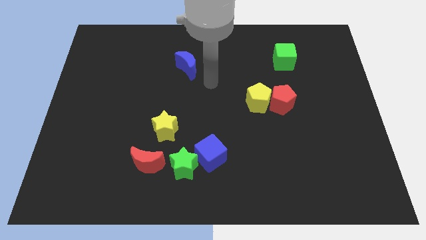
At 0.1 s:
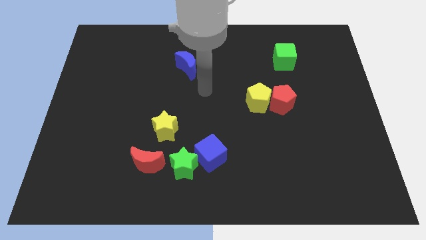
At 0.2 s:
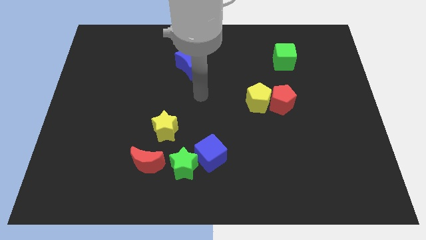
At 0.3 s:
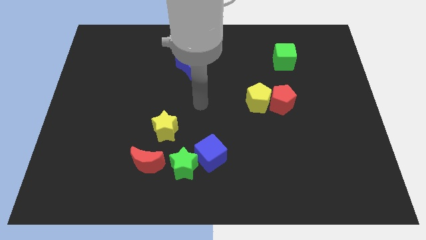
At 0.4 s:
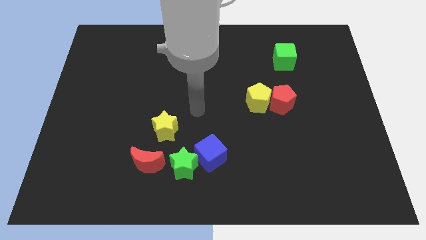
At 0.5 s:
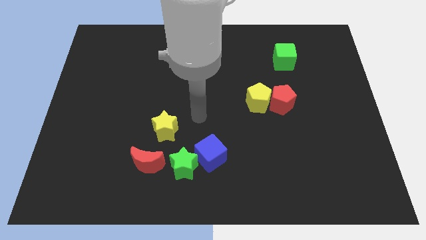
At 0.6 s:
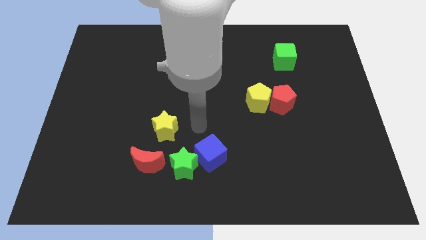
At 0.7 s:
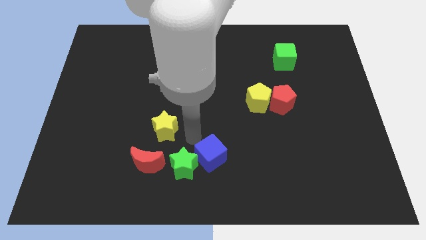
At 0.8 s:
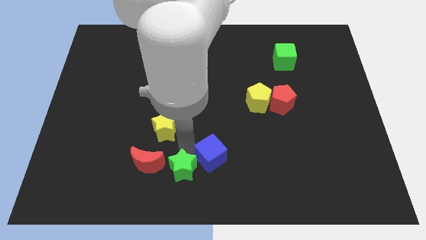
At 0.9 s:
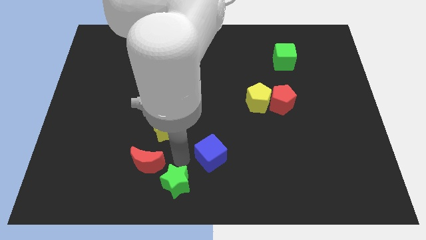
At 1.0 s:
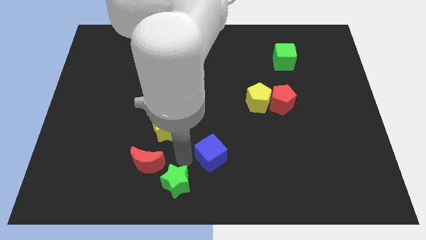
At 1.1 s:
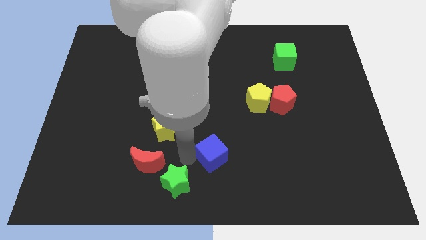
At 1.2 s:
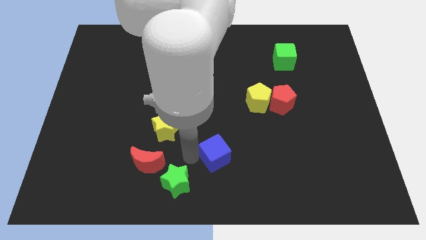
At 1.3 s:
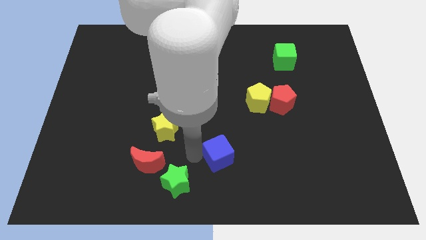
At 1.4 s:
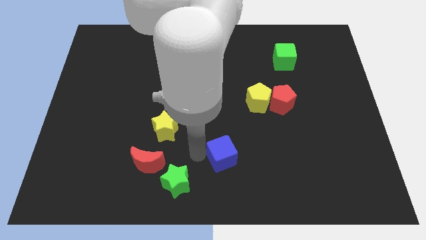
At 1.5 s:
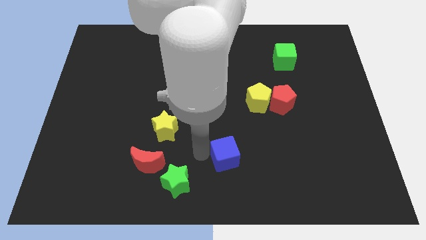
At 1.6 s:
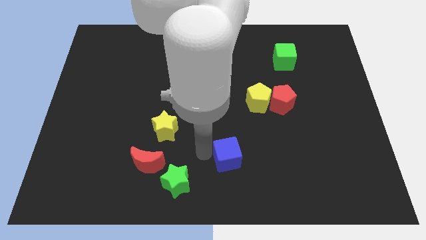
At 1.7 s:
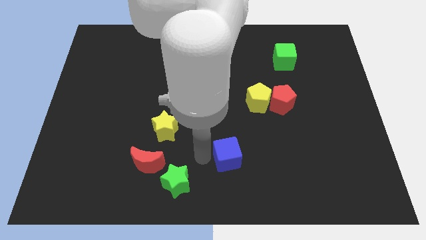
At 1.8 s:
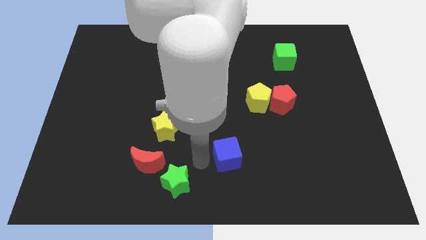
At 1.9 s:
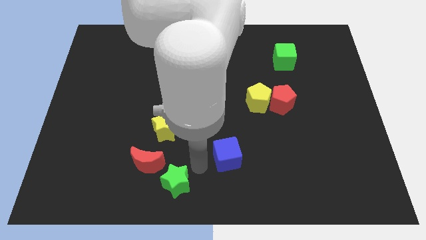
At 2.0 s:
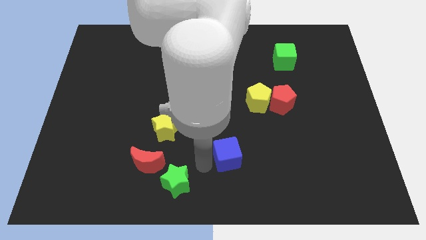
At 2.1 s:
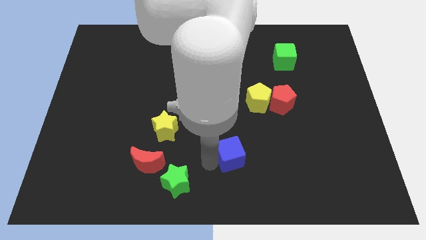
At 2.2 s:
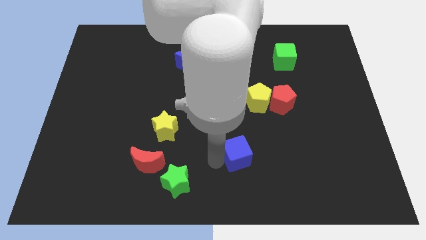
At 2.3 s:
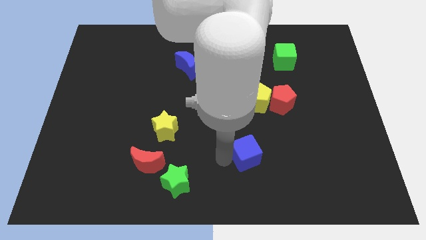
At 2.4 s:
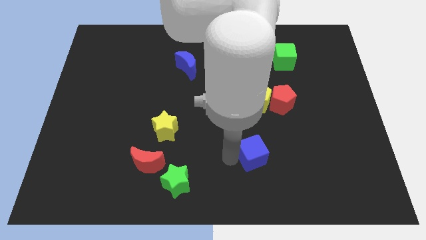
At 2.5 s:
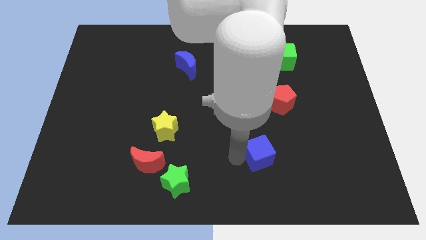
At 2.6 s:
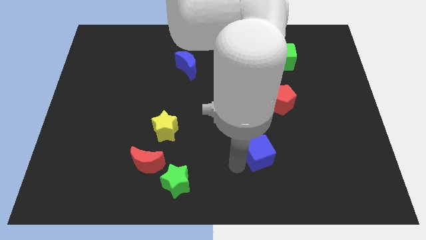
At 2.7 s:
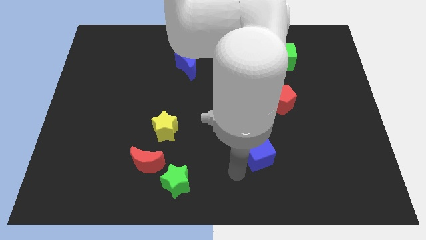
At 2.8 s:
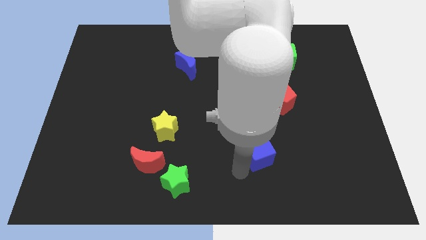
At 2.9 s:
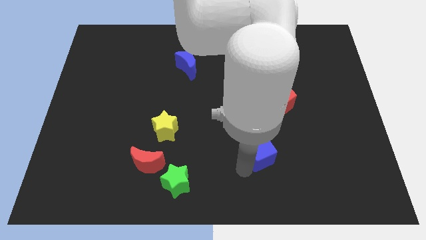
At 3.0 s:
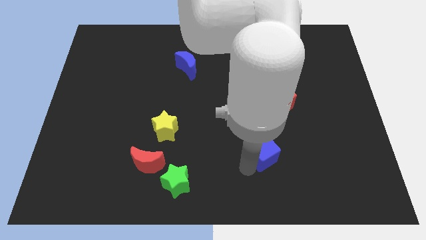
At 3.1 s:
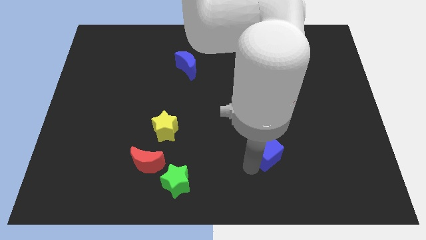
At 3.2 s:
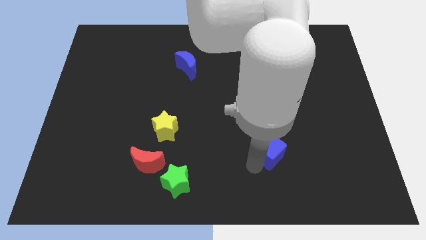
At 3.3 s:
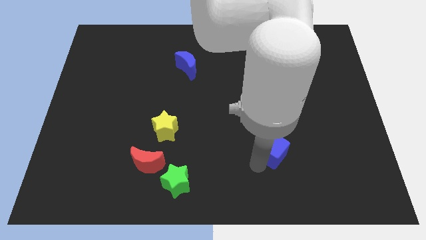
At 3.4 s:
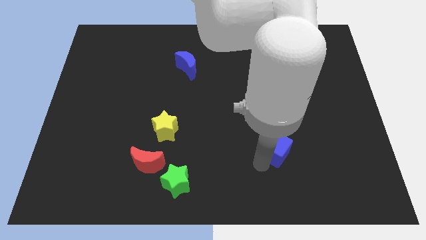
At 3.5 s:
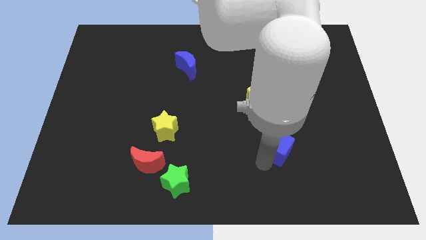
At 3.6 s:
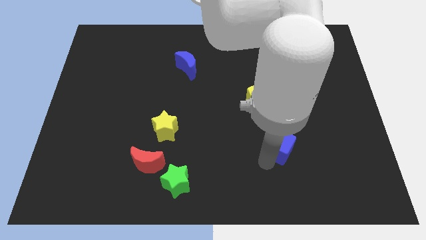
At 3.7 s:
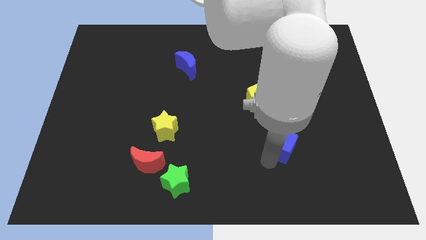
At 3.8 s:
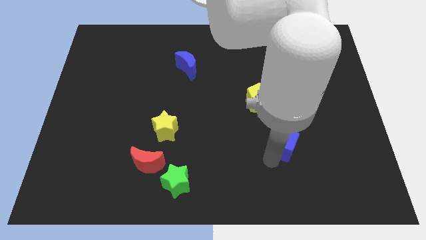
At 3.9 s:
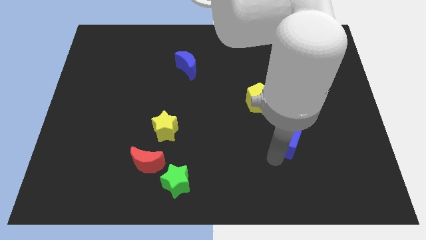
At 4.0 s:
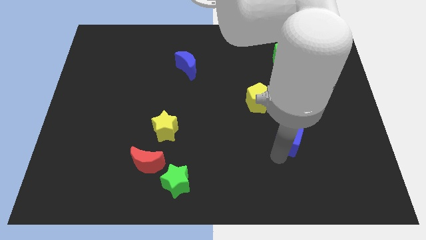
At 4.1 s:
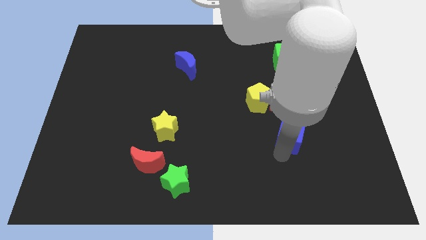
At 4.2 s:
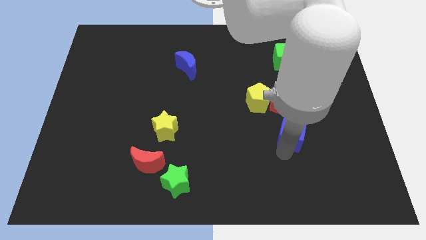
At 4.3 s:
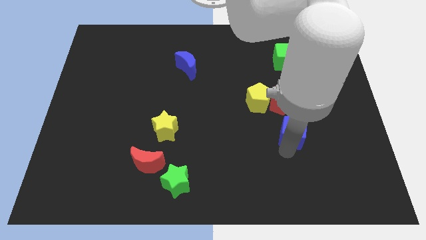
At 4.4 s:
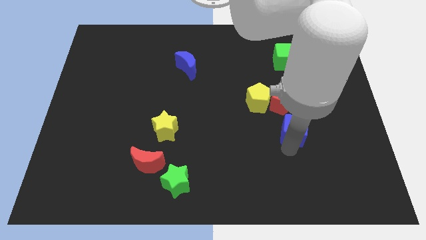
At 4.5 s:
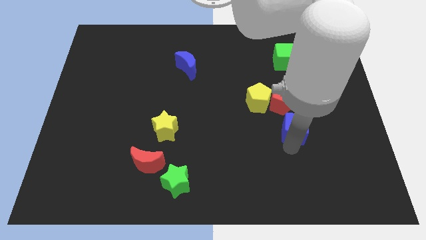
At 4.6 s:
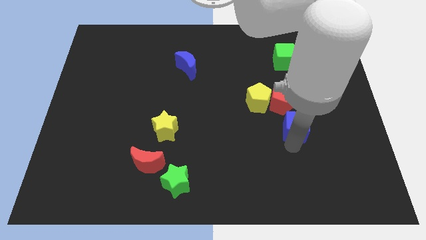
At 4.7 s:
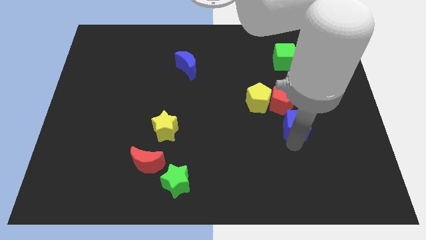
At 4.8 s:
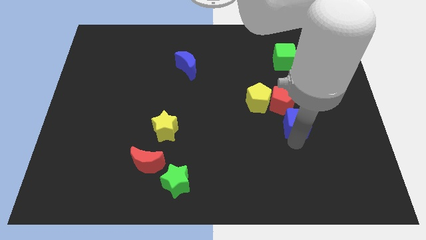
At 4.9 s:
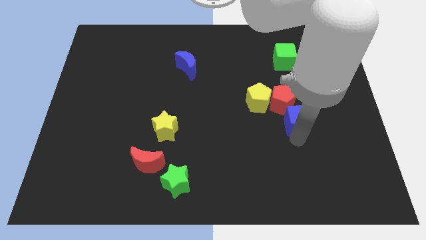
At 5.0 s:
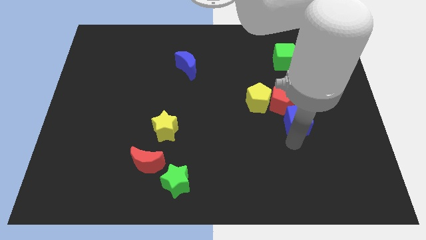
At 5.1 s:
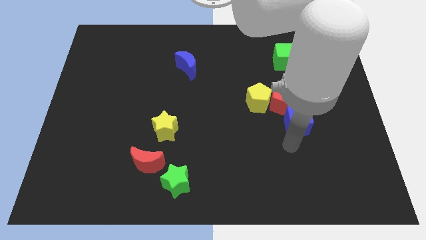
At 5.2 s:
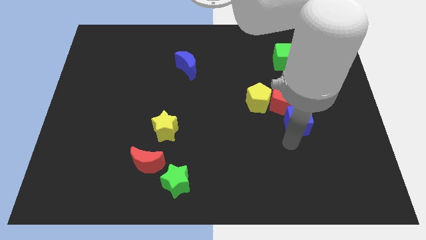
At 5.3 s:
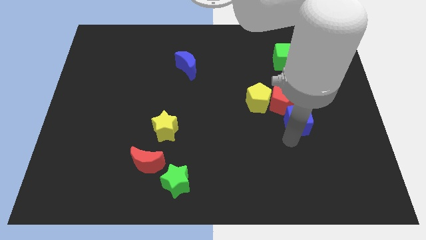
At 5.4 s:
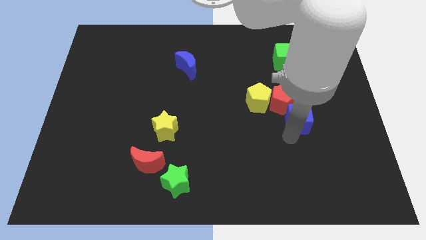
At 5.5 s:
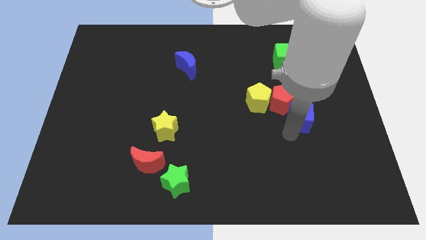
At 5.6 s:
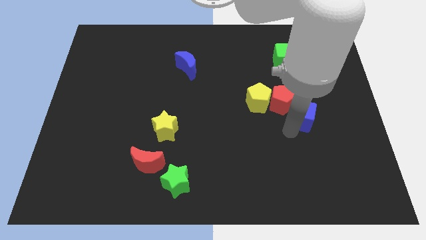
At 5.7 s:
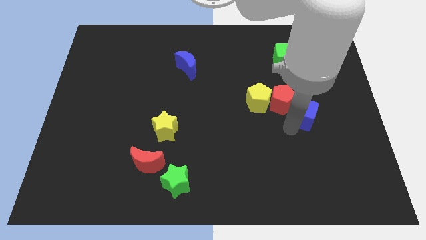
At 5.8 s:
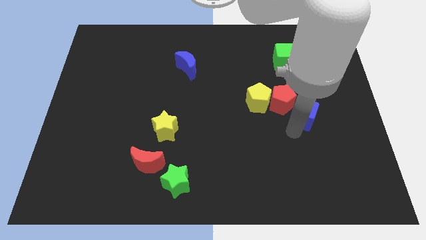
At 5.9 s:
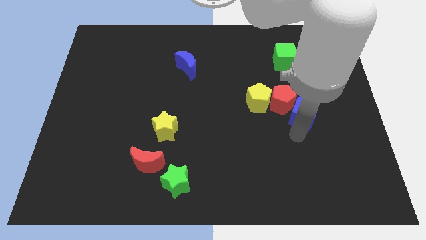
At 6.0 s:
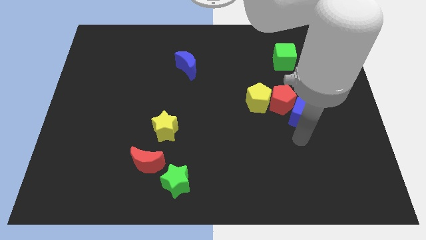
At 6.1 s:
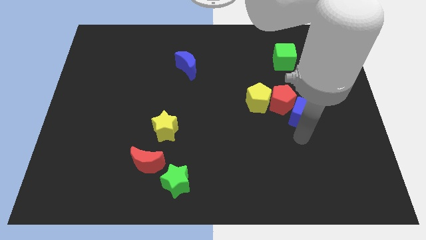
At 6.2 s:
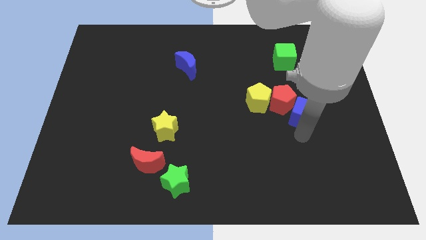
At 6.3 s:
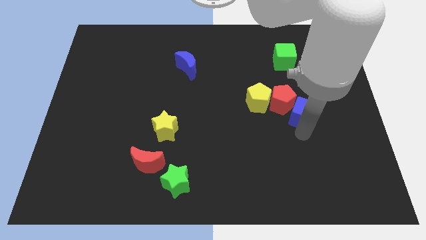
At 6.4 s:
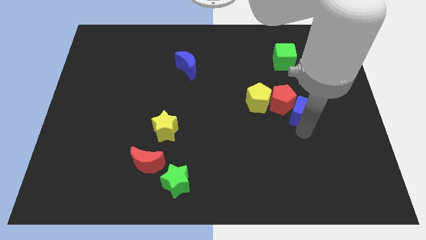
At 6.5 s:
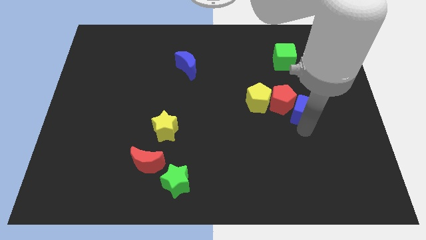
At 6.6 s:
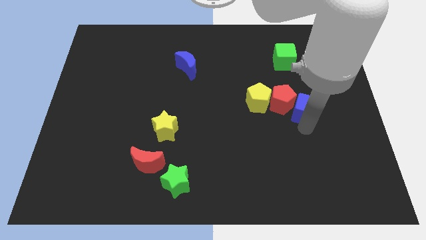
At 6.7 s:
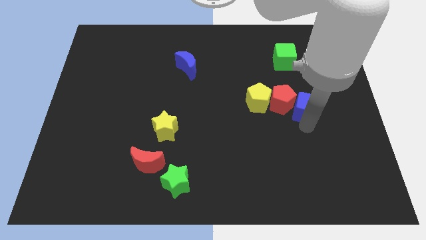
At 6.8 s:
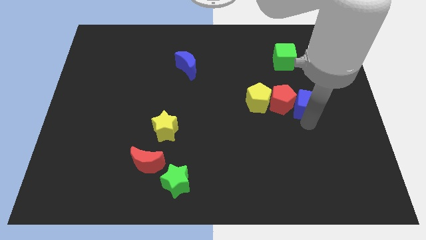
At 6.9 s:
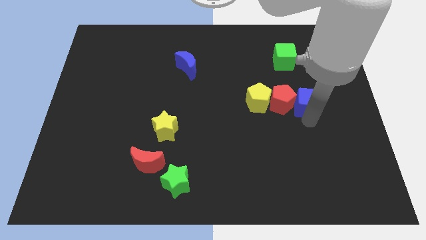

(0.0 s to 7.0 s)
push the blue cube diagonally up and to the right of the red pentagon

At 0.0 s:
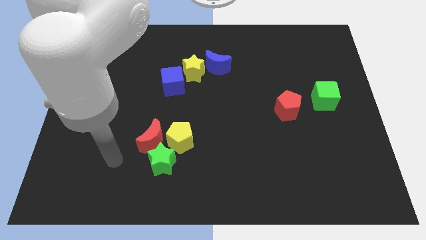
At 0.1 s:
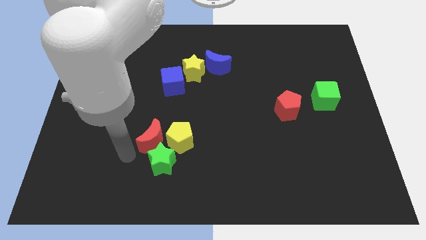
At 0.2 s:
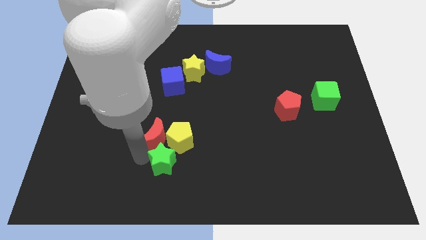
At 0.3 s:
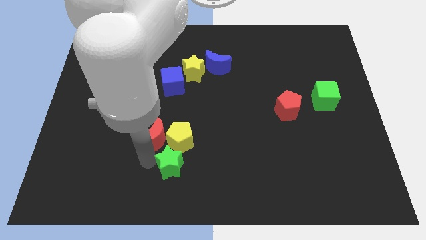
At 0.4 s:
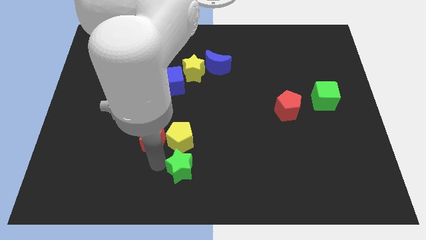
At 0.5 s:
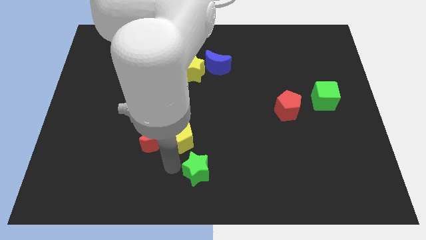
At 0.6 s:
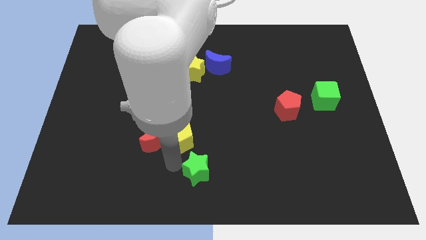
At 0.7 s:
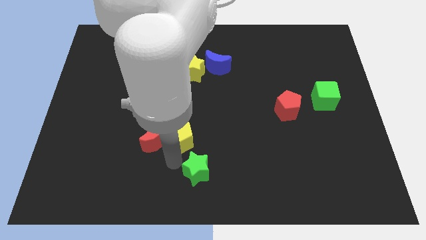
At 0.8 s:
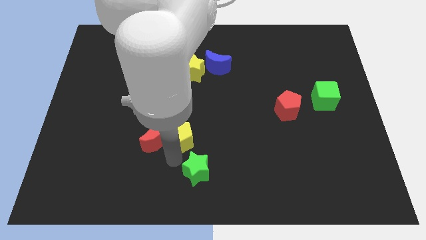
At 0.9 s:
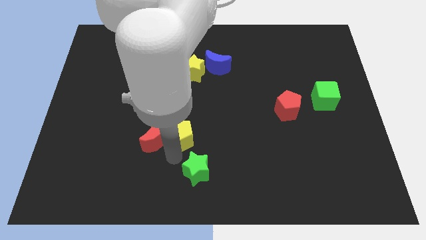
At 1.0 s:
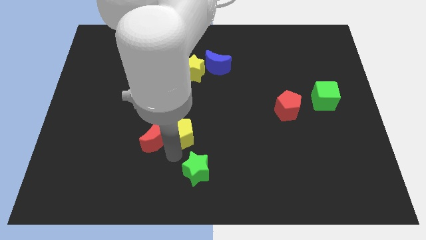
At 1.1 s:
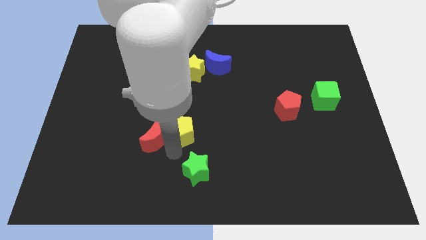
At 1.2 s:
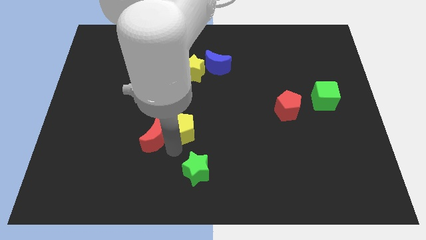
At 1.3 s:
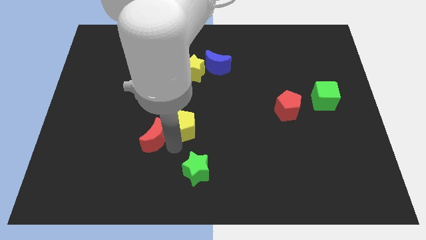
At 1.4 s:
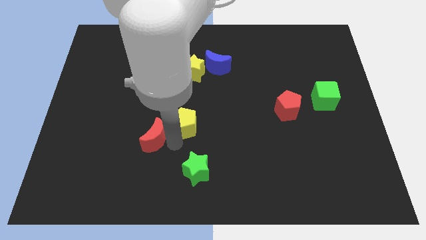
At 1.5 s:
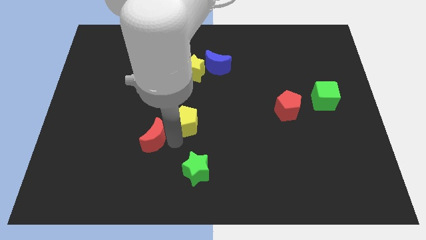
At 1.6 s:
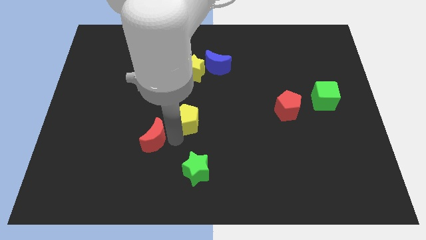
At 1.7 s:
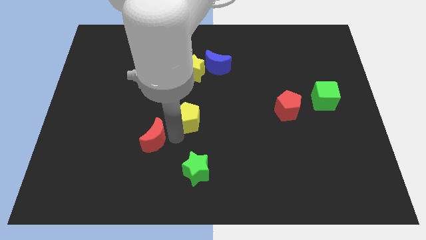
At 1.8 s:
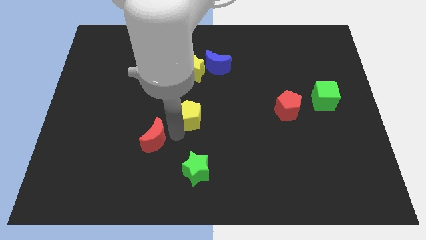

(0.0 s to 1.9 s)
put the yellow pentagon diagonally down and to the right of the blue cube
